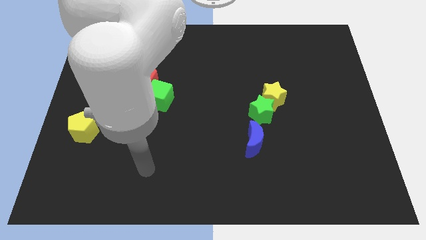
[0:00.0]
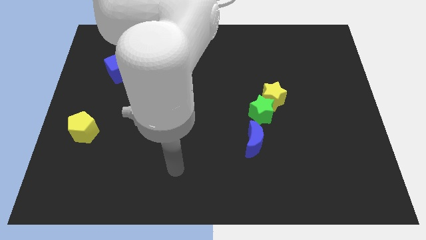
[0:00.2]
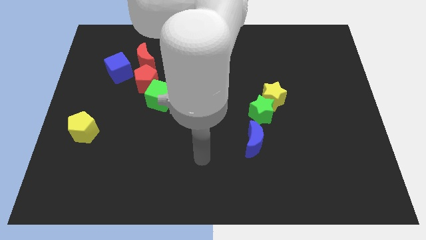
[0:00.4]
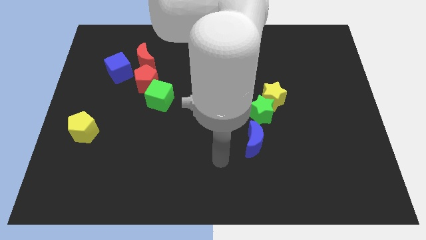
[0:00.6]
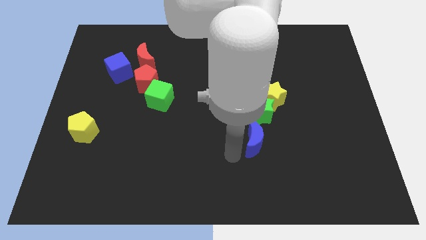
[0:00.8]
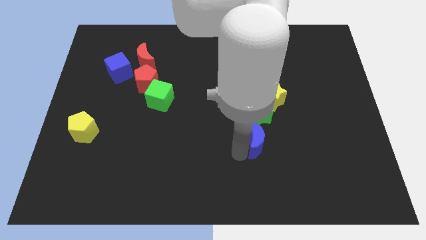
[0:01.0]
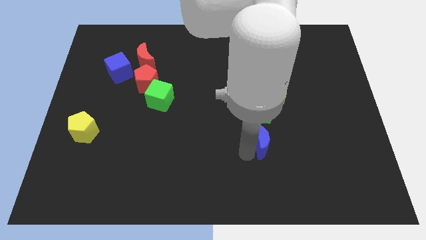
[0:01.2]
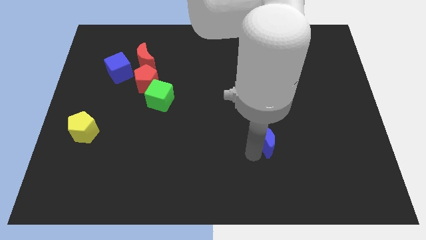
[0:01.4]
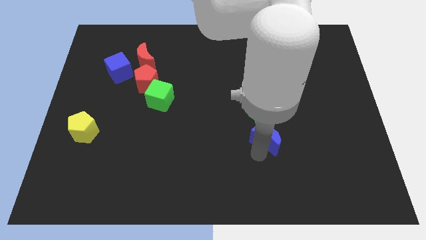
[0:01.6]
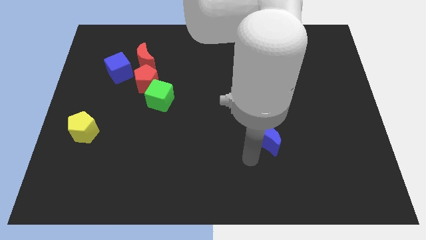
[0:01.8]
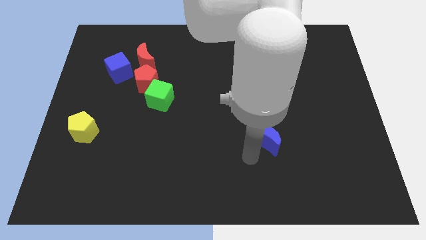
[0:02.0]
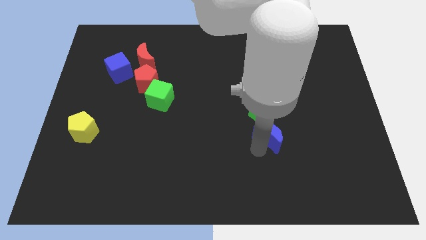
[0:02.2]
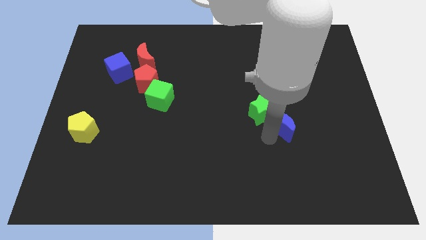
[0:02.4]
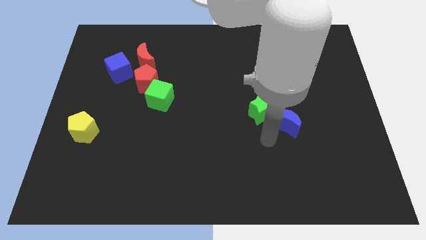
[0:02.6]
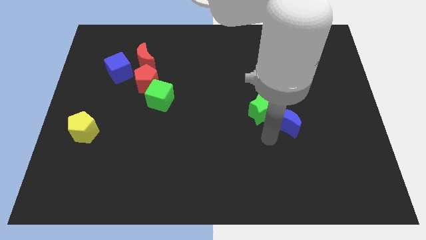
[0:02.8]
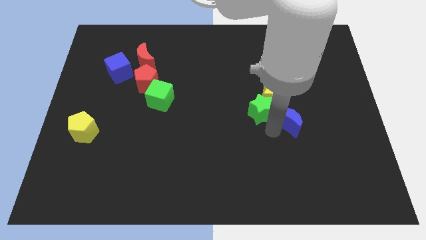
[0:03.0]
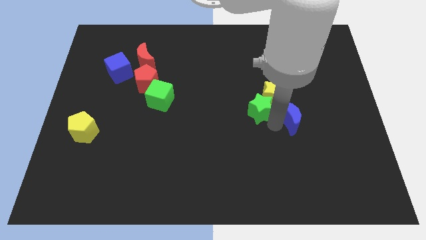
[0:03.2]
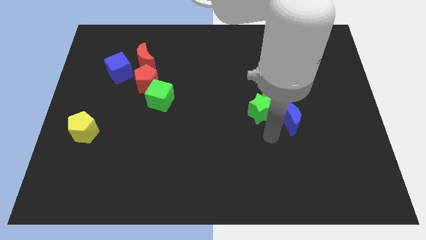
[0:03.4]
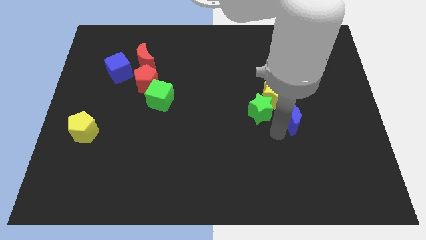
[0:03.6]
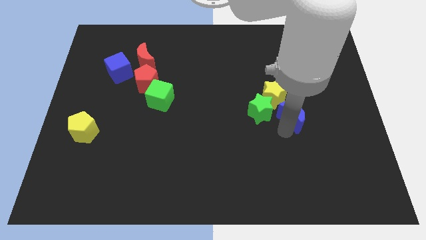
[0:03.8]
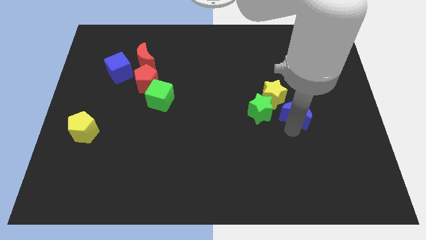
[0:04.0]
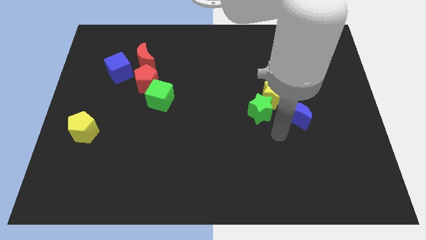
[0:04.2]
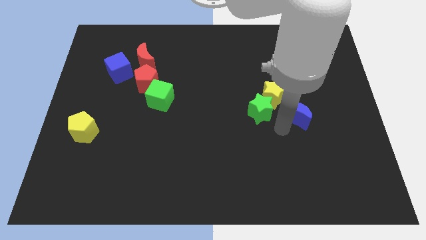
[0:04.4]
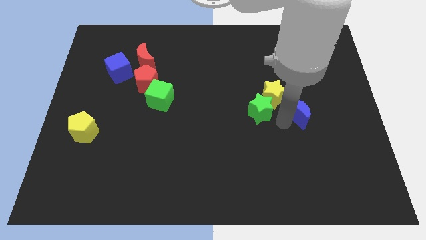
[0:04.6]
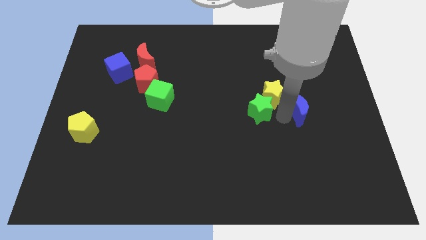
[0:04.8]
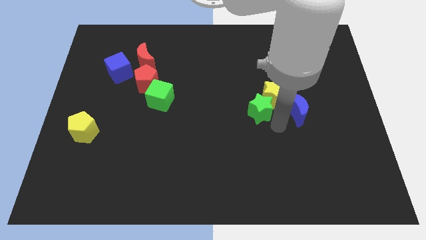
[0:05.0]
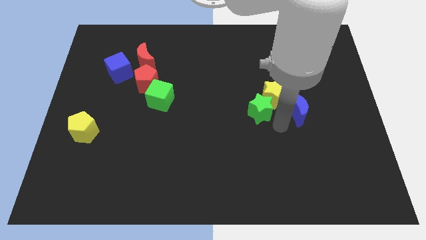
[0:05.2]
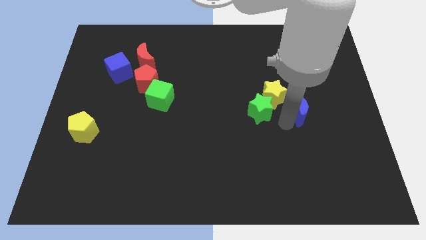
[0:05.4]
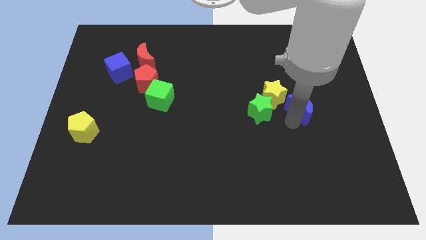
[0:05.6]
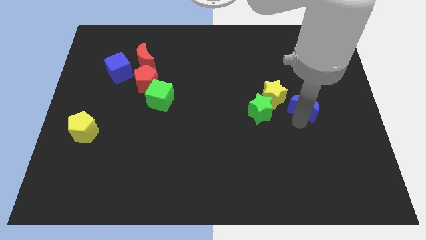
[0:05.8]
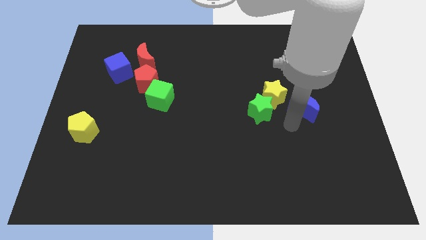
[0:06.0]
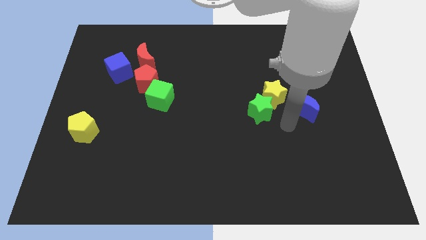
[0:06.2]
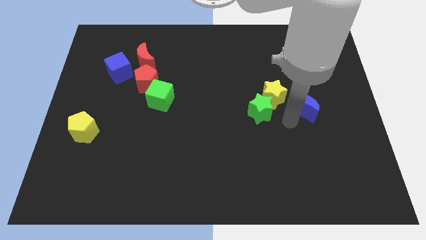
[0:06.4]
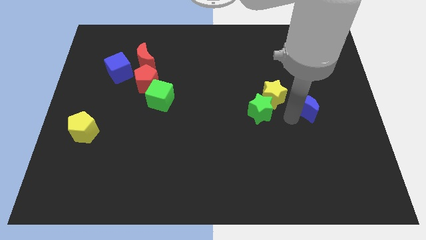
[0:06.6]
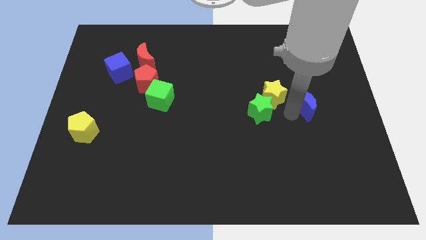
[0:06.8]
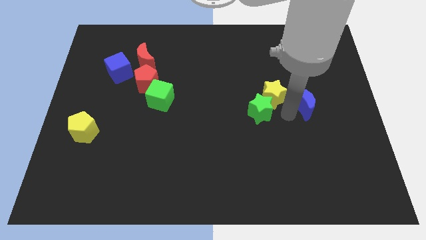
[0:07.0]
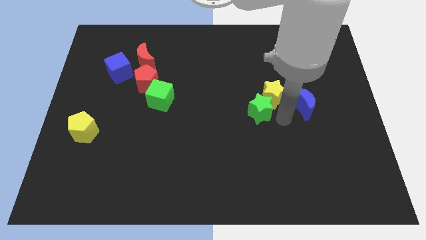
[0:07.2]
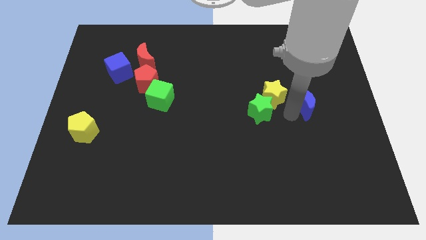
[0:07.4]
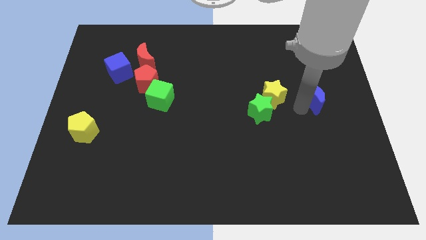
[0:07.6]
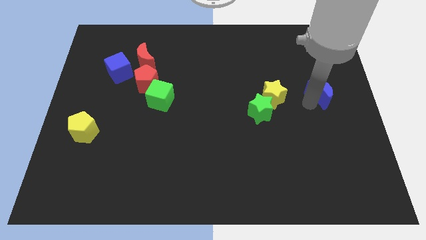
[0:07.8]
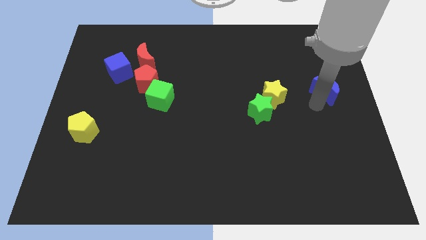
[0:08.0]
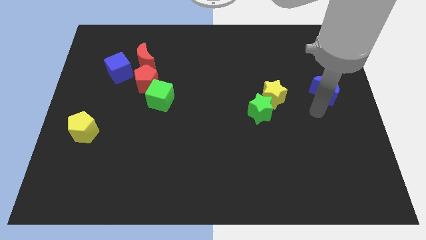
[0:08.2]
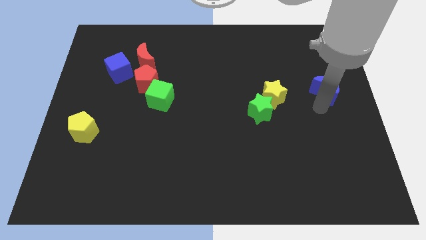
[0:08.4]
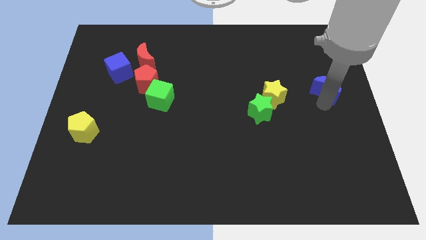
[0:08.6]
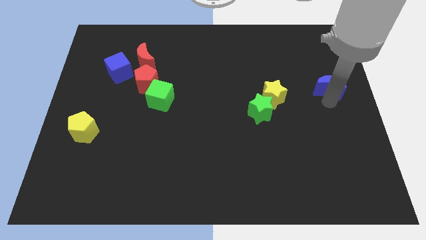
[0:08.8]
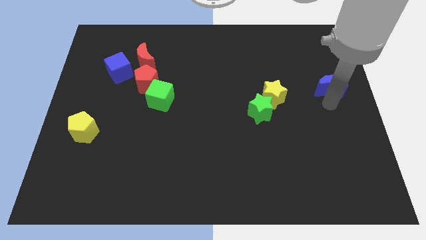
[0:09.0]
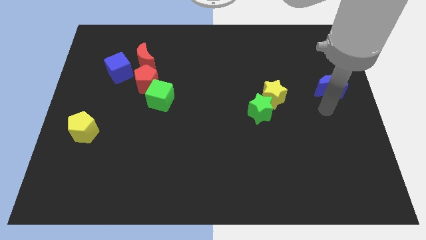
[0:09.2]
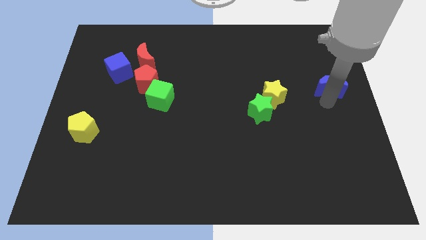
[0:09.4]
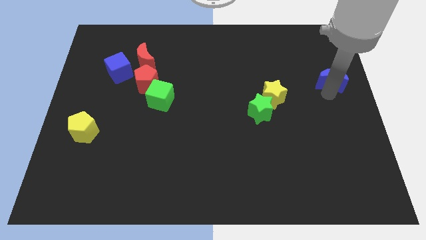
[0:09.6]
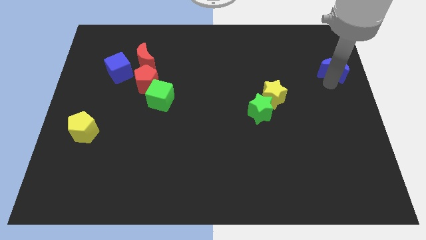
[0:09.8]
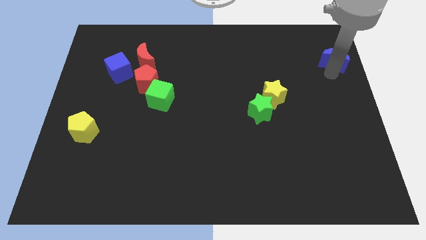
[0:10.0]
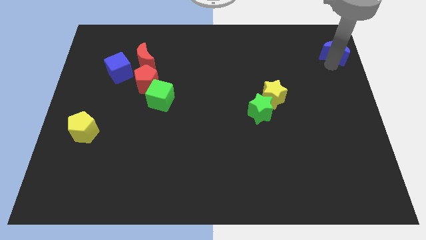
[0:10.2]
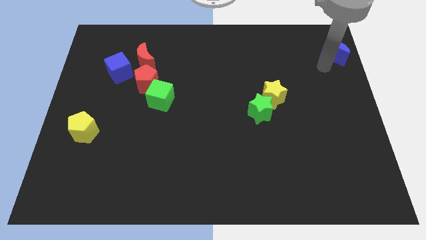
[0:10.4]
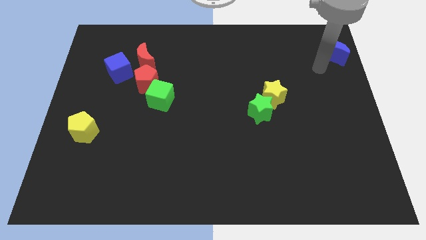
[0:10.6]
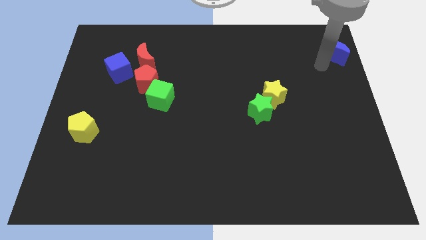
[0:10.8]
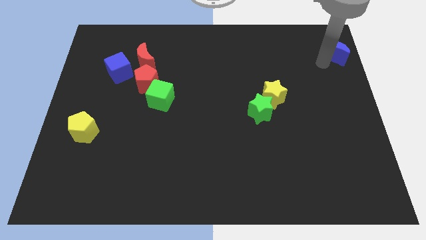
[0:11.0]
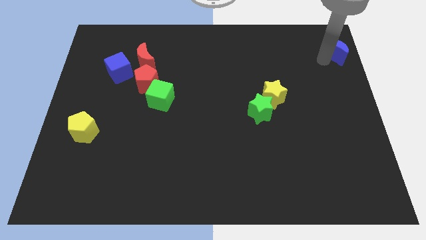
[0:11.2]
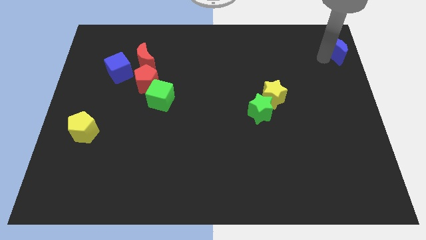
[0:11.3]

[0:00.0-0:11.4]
put the blue moon to the upper right corner

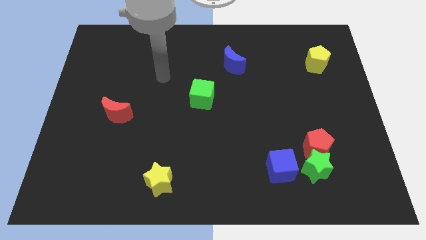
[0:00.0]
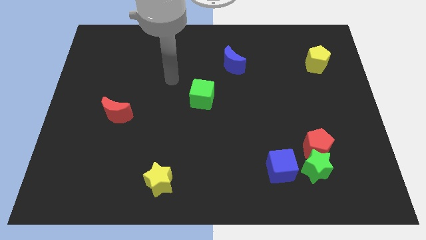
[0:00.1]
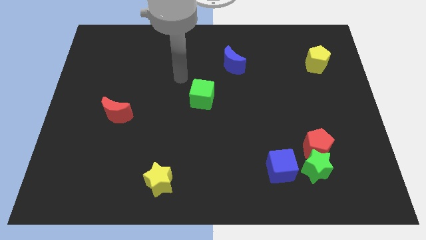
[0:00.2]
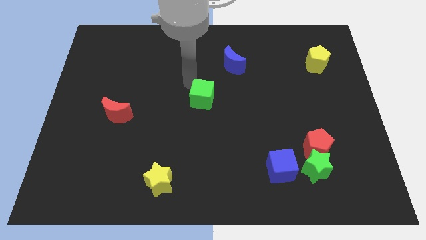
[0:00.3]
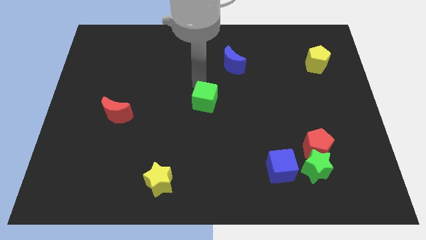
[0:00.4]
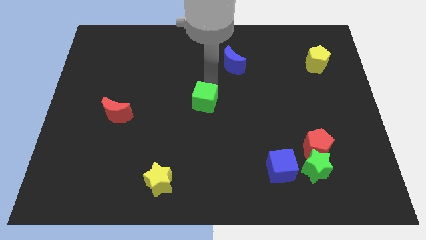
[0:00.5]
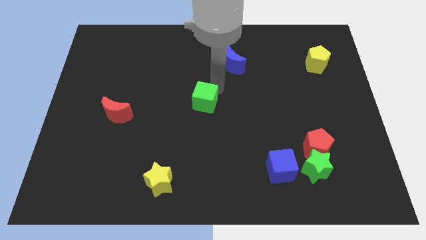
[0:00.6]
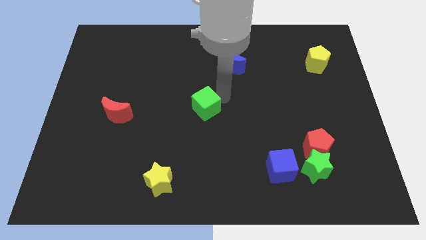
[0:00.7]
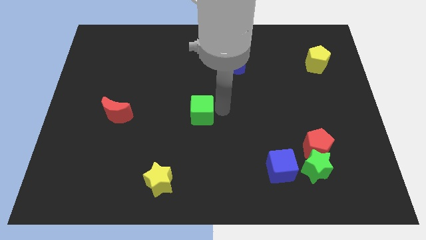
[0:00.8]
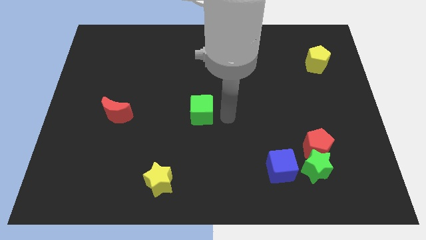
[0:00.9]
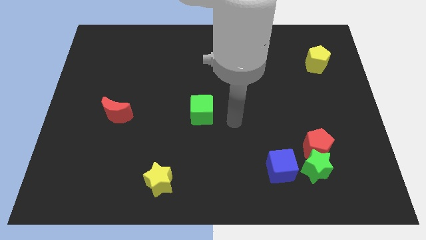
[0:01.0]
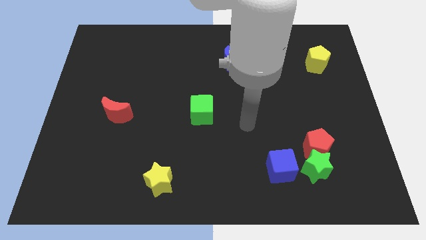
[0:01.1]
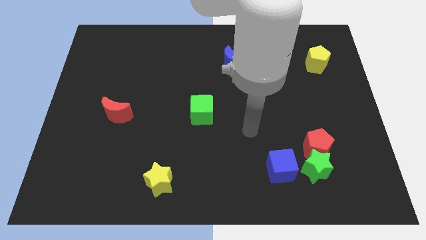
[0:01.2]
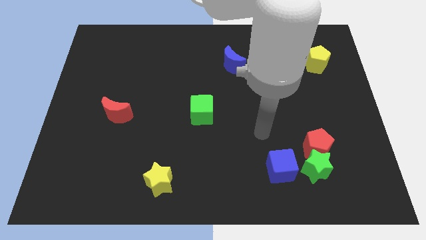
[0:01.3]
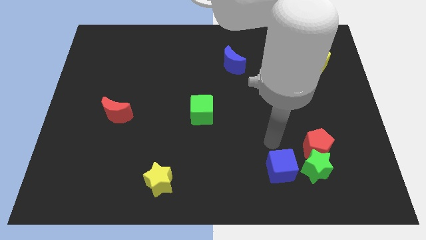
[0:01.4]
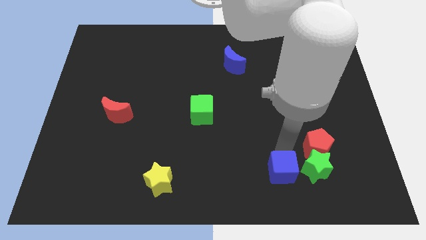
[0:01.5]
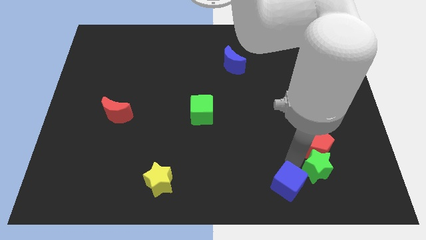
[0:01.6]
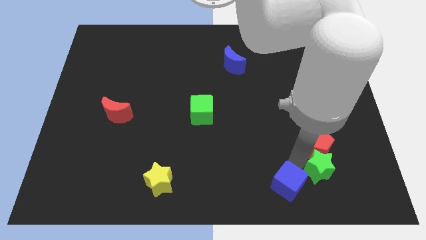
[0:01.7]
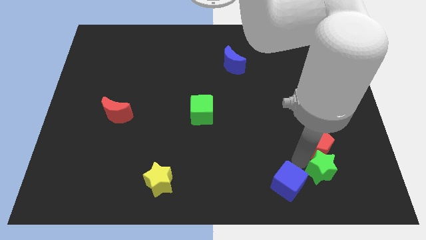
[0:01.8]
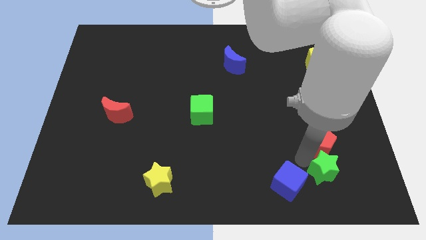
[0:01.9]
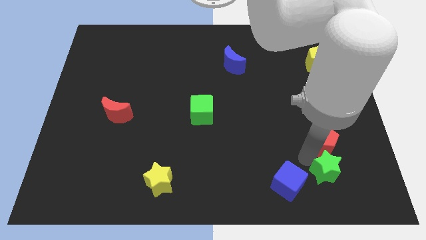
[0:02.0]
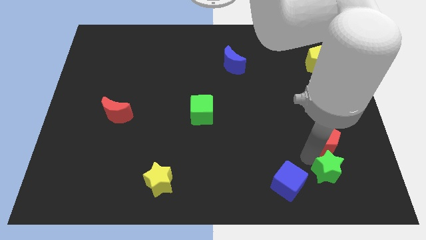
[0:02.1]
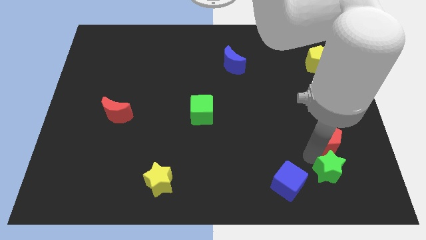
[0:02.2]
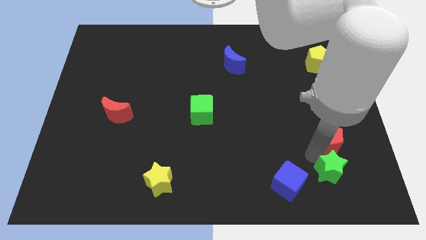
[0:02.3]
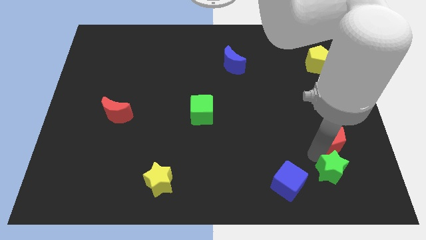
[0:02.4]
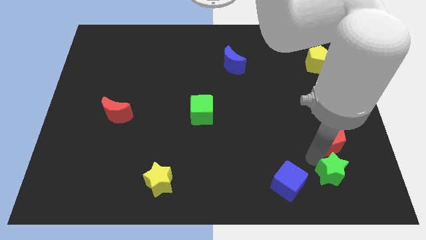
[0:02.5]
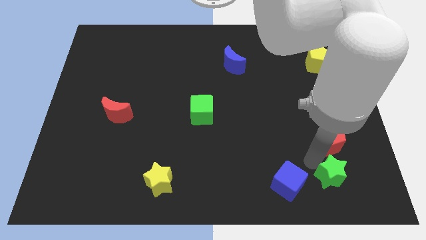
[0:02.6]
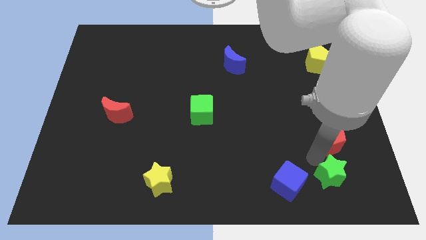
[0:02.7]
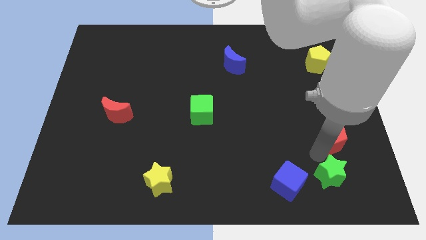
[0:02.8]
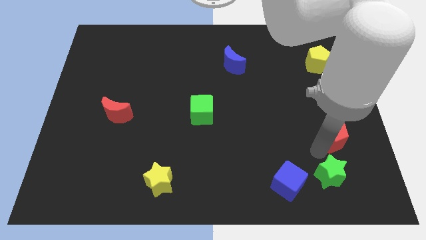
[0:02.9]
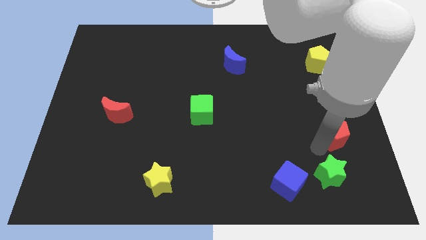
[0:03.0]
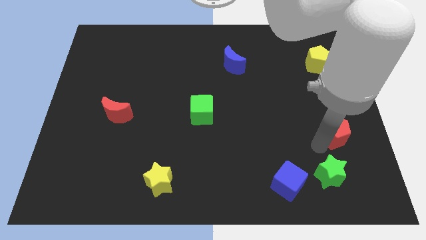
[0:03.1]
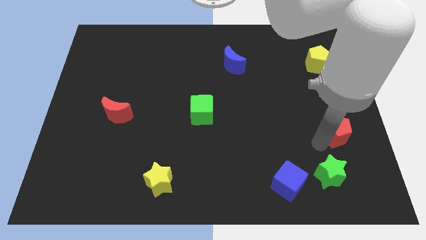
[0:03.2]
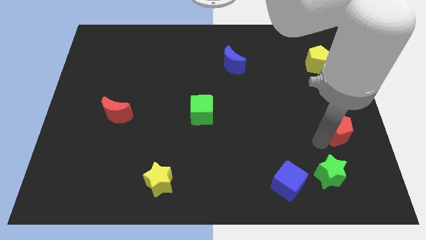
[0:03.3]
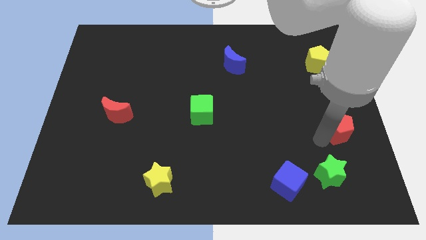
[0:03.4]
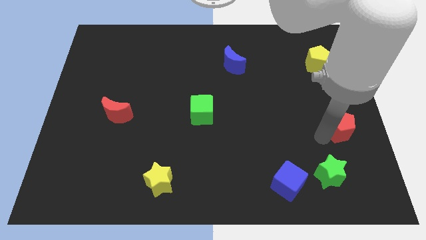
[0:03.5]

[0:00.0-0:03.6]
slide the red pentagon to the right side
